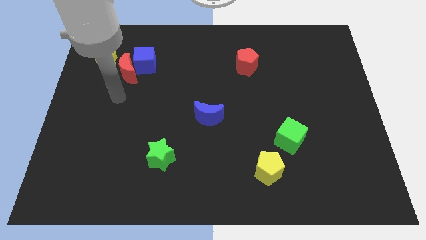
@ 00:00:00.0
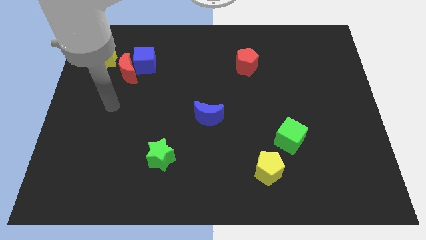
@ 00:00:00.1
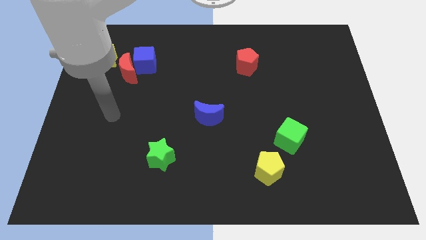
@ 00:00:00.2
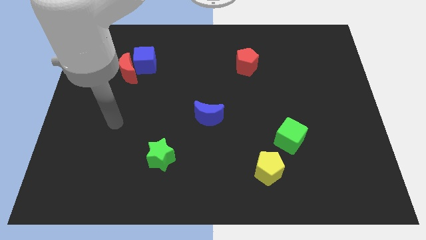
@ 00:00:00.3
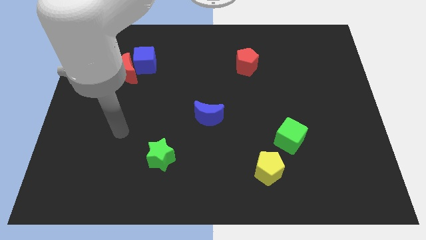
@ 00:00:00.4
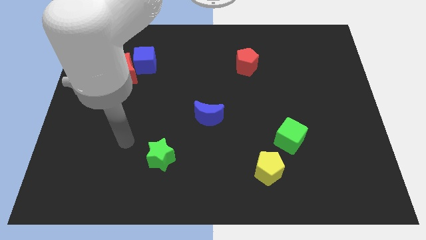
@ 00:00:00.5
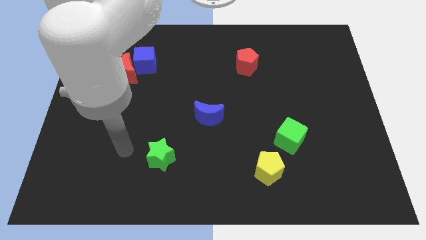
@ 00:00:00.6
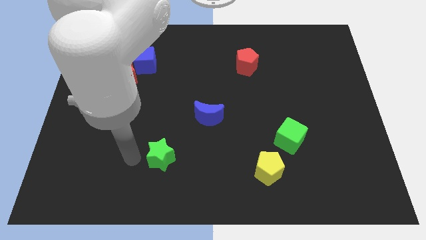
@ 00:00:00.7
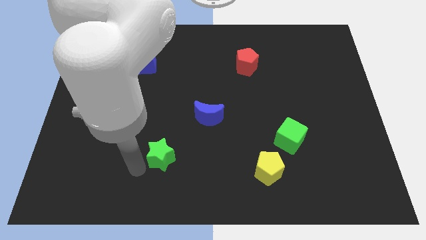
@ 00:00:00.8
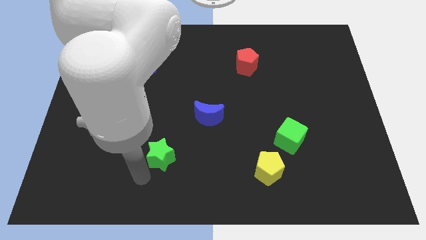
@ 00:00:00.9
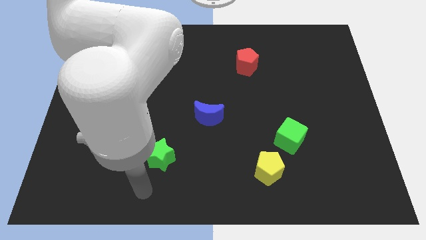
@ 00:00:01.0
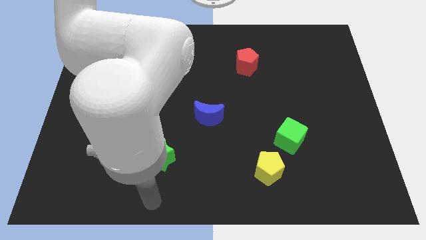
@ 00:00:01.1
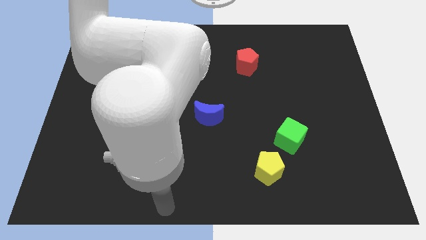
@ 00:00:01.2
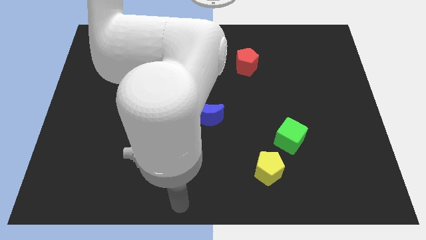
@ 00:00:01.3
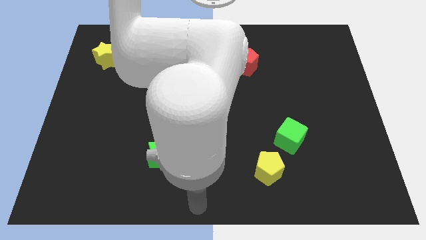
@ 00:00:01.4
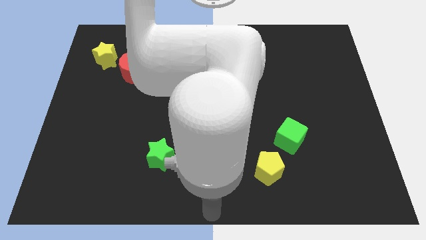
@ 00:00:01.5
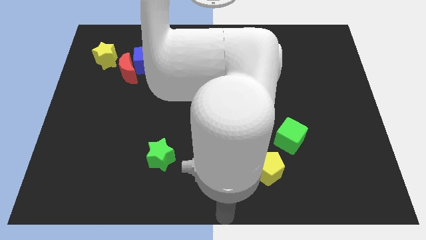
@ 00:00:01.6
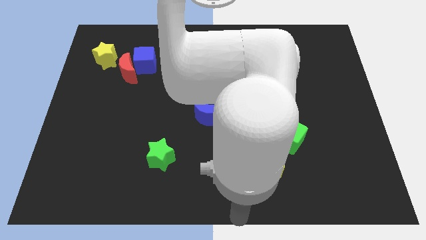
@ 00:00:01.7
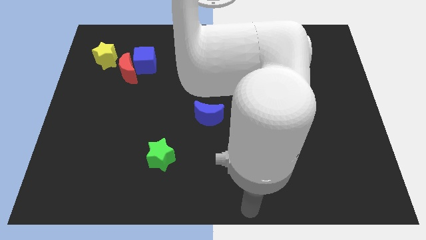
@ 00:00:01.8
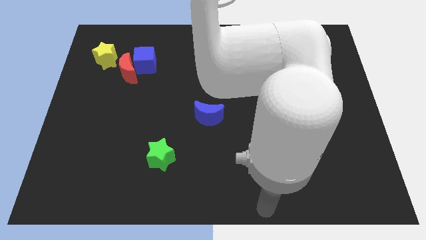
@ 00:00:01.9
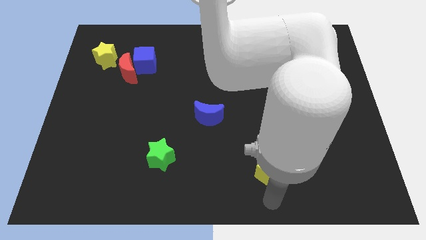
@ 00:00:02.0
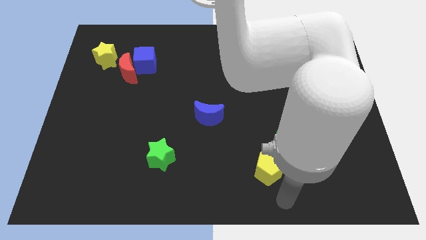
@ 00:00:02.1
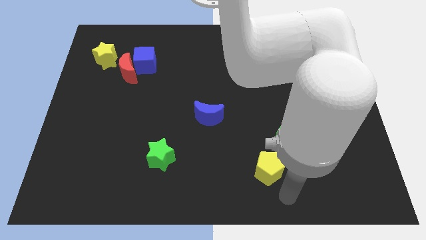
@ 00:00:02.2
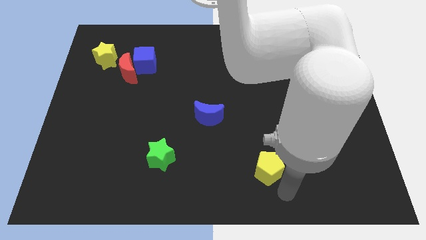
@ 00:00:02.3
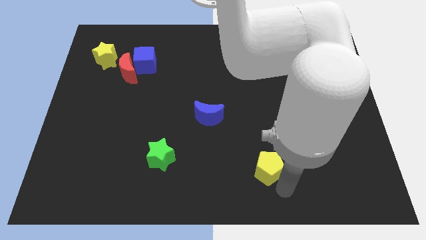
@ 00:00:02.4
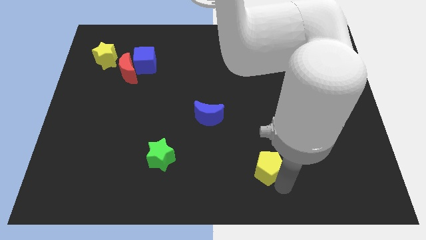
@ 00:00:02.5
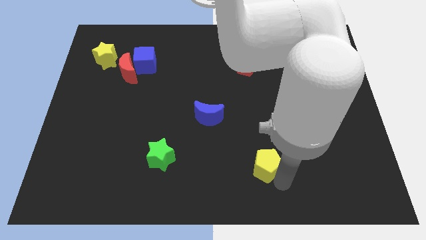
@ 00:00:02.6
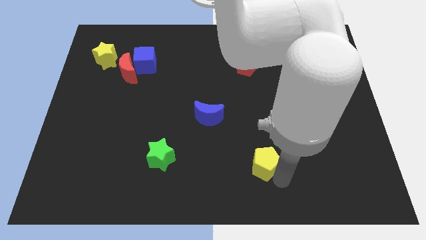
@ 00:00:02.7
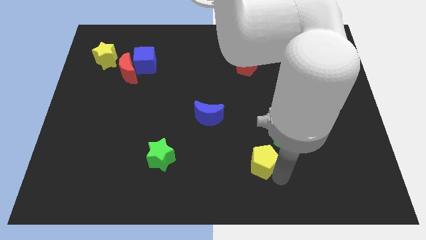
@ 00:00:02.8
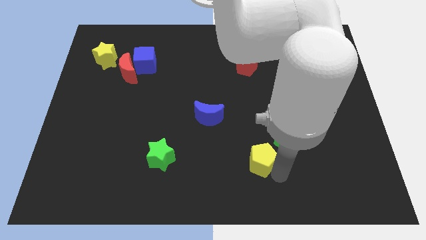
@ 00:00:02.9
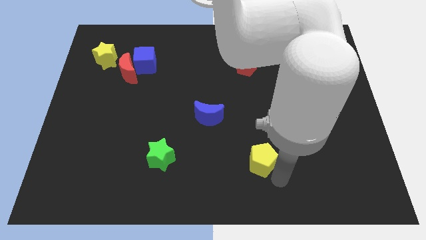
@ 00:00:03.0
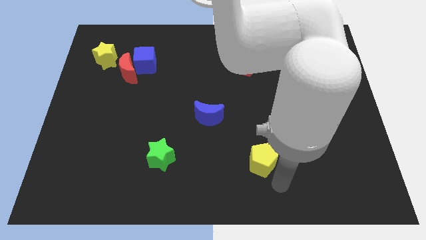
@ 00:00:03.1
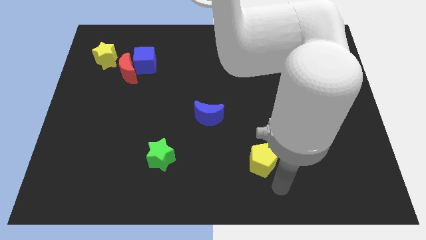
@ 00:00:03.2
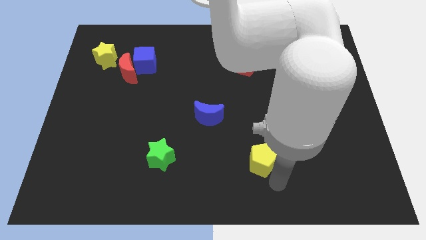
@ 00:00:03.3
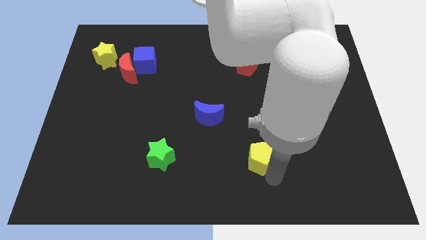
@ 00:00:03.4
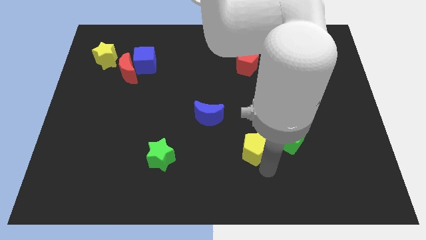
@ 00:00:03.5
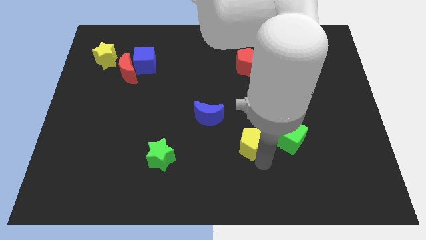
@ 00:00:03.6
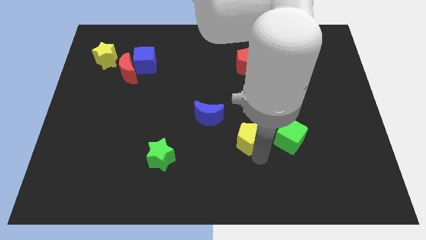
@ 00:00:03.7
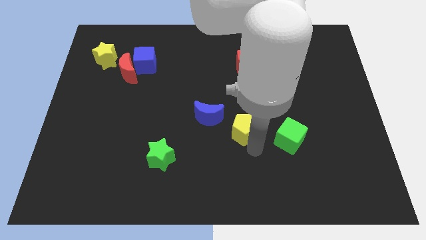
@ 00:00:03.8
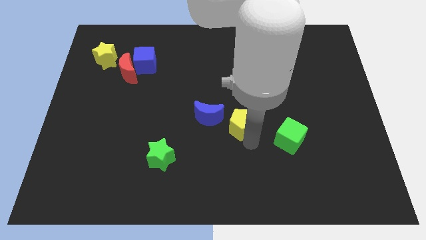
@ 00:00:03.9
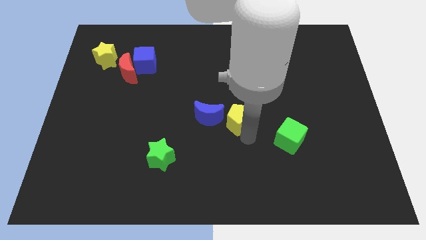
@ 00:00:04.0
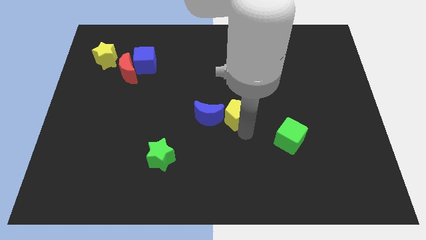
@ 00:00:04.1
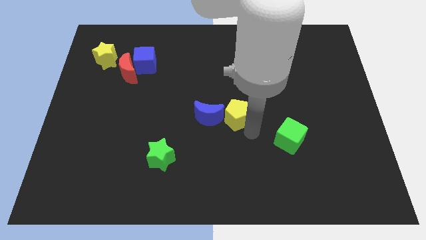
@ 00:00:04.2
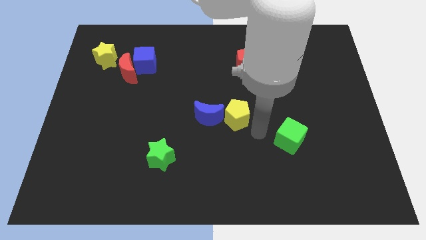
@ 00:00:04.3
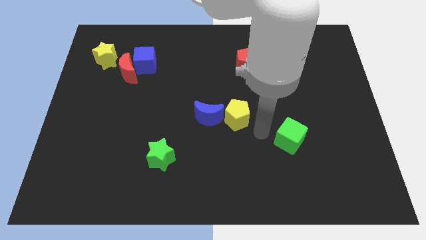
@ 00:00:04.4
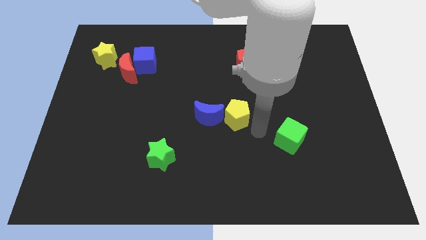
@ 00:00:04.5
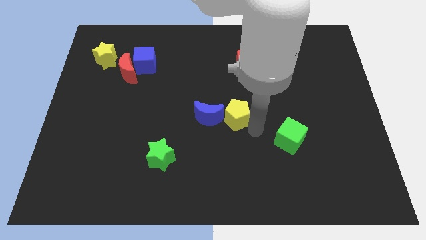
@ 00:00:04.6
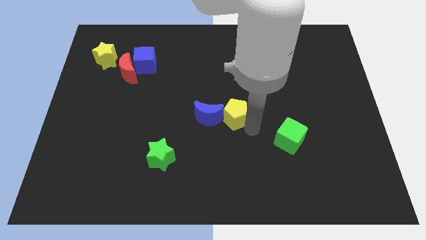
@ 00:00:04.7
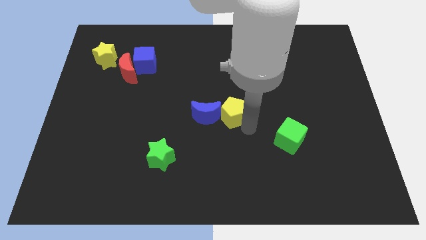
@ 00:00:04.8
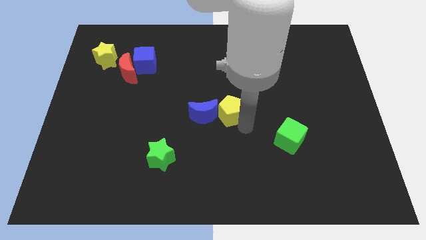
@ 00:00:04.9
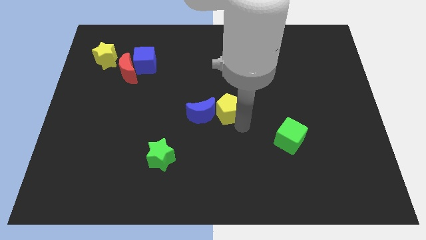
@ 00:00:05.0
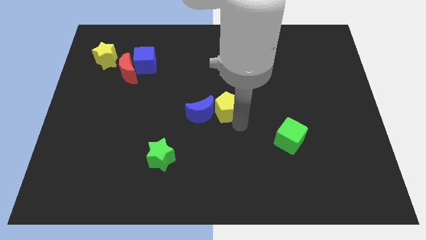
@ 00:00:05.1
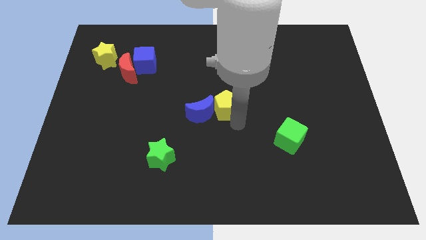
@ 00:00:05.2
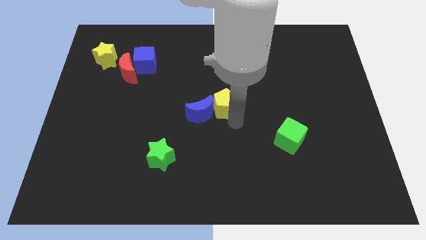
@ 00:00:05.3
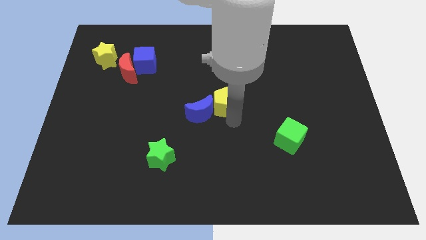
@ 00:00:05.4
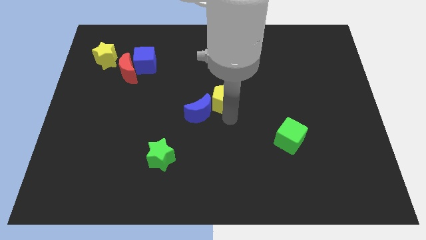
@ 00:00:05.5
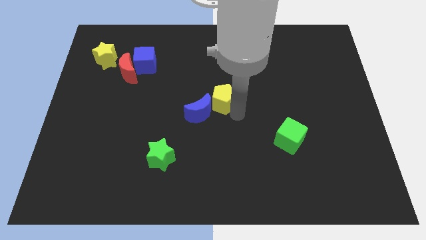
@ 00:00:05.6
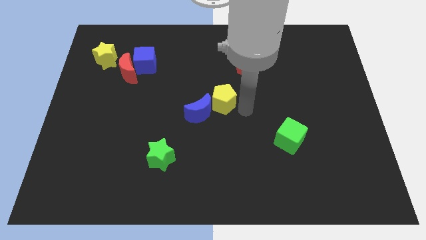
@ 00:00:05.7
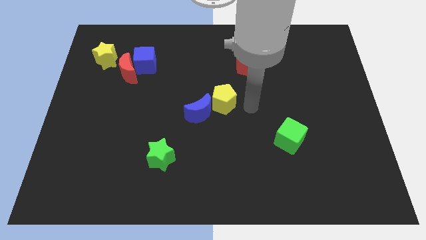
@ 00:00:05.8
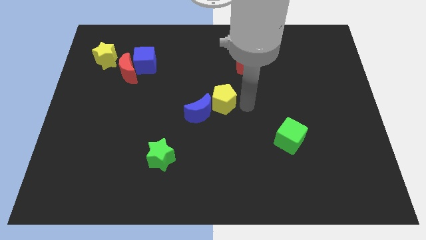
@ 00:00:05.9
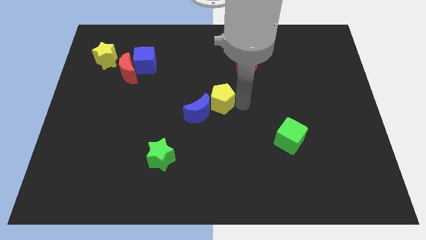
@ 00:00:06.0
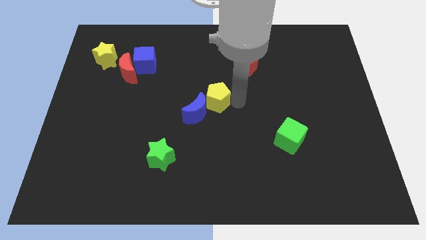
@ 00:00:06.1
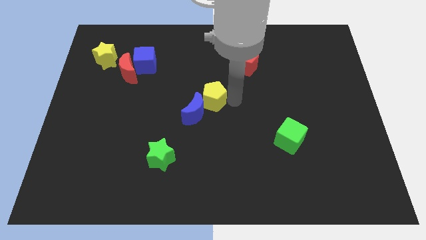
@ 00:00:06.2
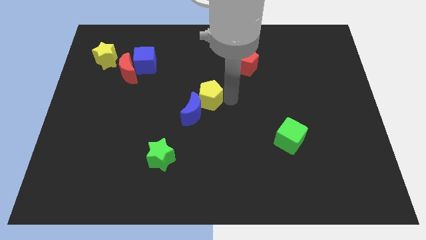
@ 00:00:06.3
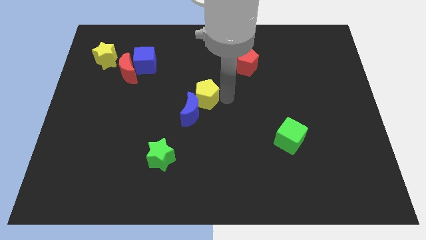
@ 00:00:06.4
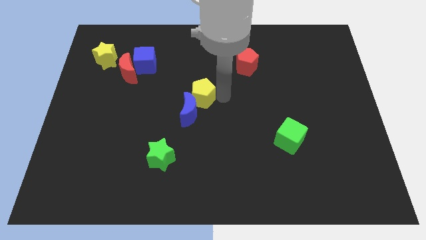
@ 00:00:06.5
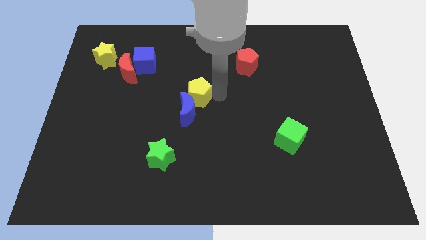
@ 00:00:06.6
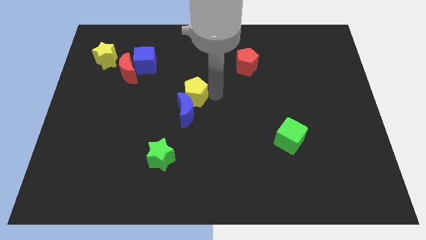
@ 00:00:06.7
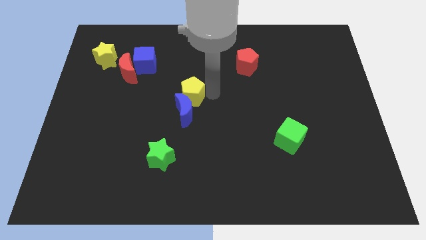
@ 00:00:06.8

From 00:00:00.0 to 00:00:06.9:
put the yellow pentagon to the top left side of the blue moon

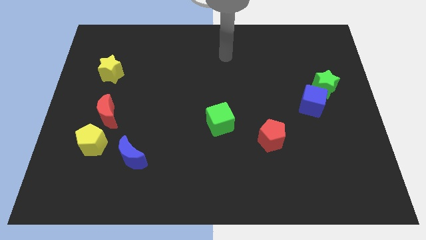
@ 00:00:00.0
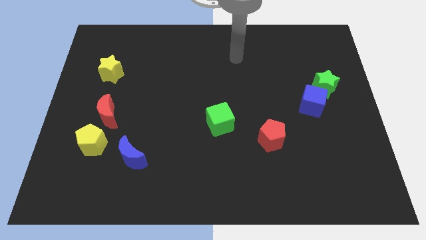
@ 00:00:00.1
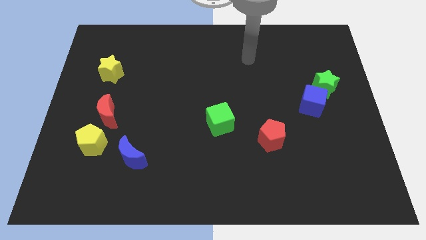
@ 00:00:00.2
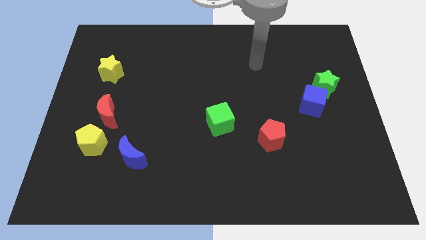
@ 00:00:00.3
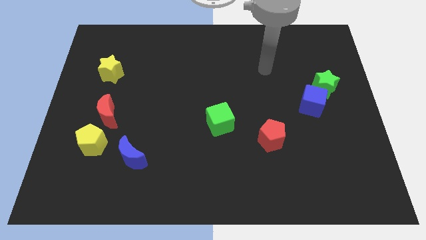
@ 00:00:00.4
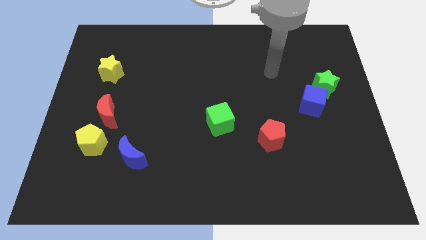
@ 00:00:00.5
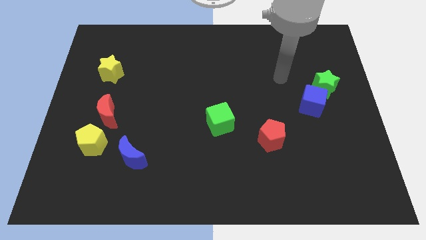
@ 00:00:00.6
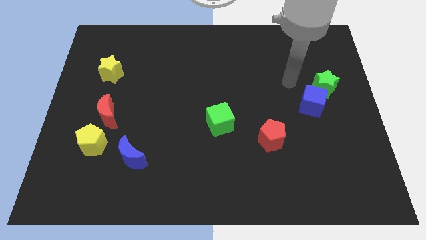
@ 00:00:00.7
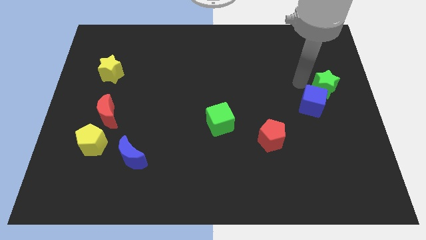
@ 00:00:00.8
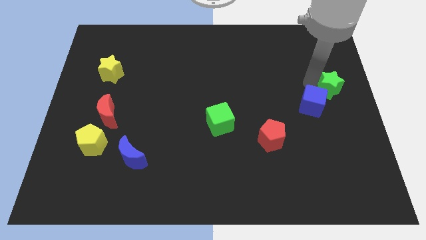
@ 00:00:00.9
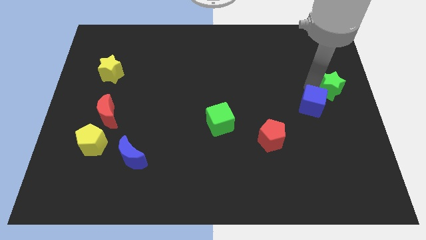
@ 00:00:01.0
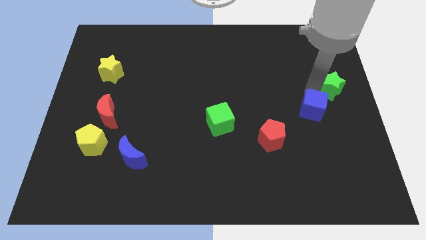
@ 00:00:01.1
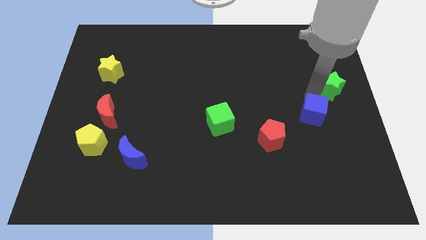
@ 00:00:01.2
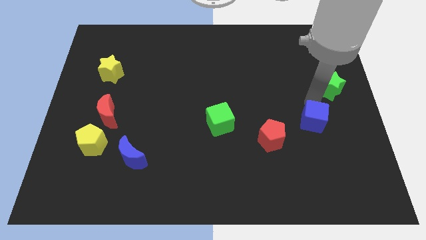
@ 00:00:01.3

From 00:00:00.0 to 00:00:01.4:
move the blue cube to the right of the red pentagon
